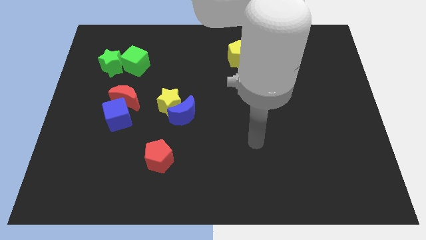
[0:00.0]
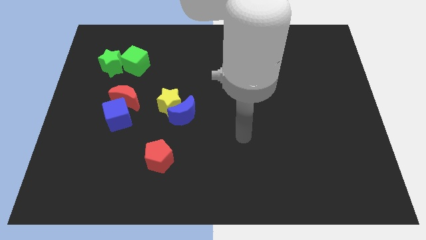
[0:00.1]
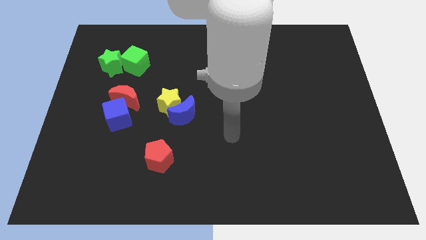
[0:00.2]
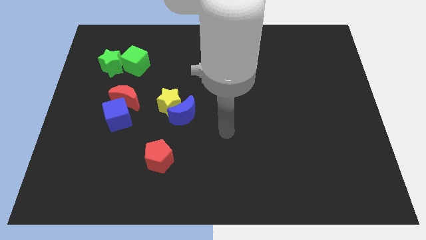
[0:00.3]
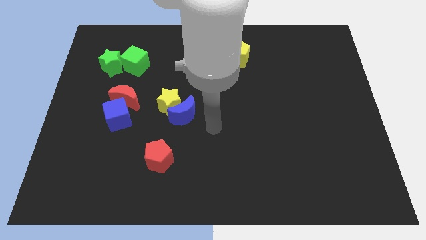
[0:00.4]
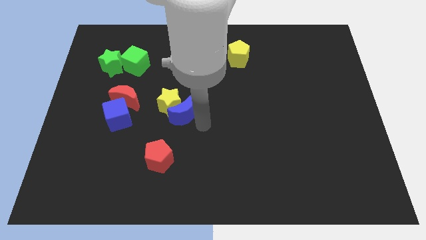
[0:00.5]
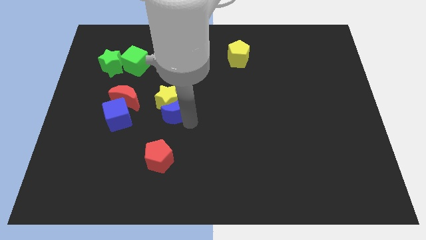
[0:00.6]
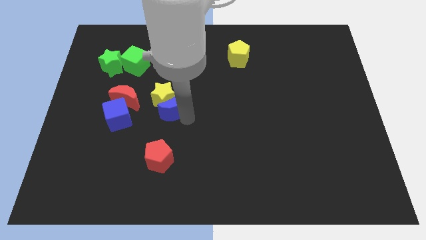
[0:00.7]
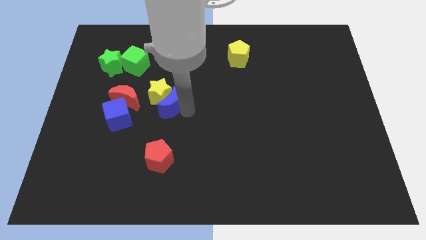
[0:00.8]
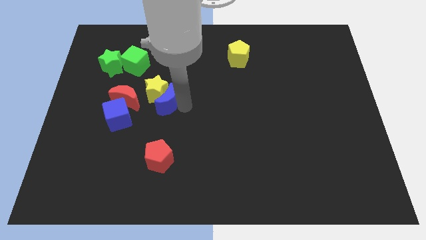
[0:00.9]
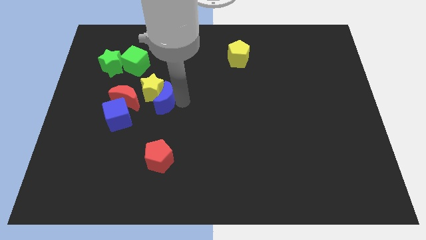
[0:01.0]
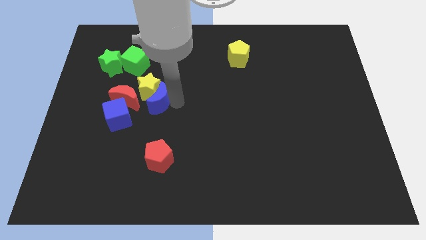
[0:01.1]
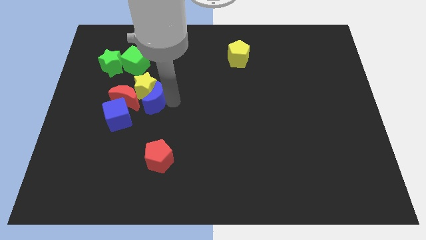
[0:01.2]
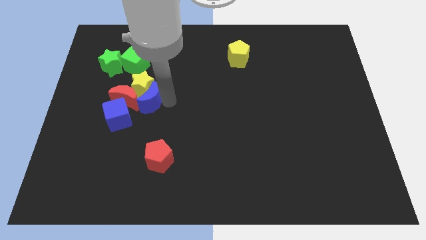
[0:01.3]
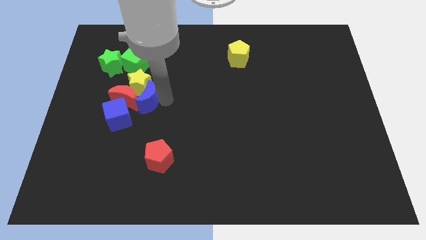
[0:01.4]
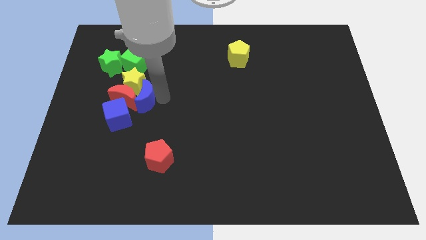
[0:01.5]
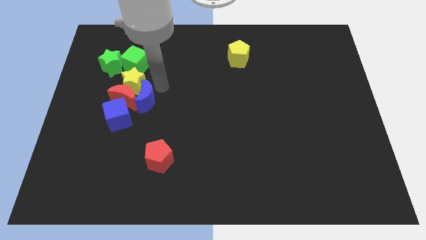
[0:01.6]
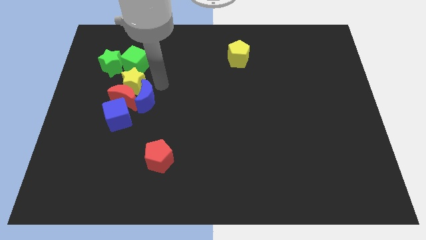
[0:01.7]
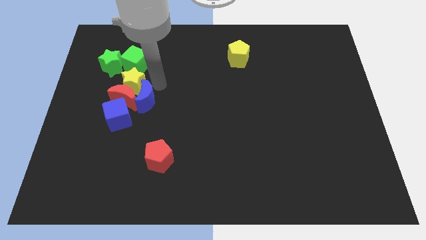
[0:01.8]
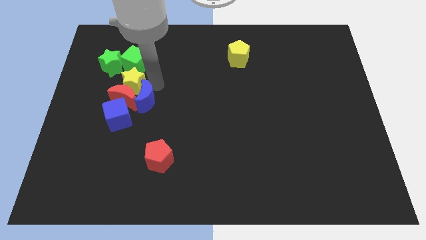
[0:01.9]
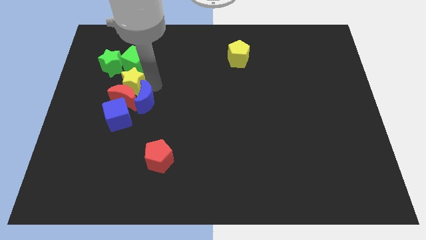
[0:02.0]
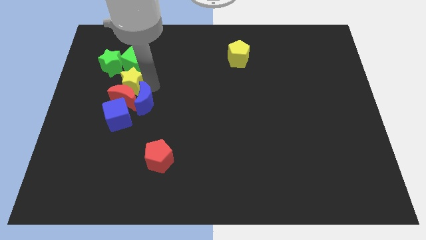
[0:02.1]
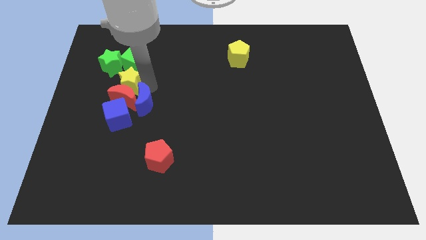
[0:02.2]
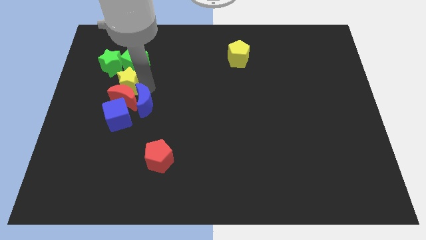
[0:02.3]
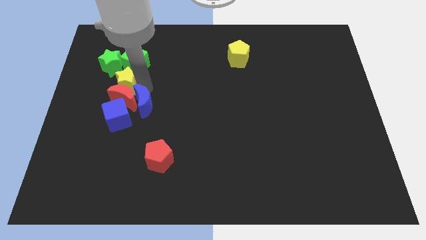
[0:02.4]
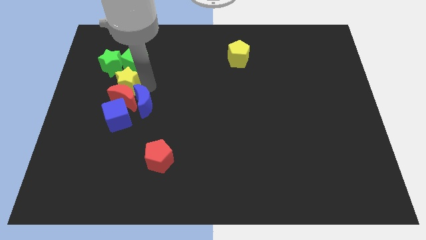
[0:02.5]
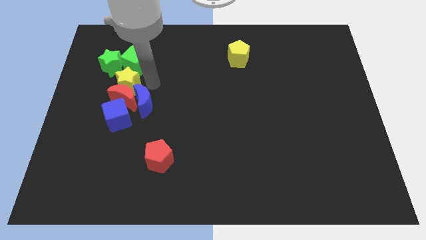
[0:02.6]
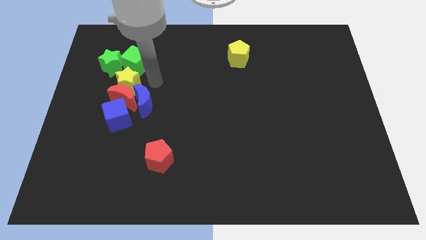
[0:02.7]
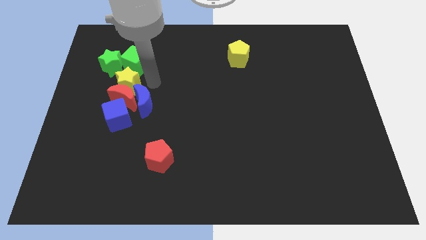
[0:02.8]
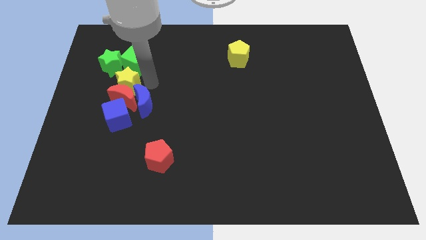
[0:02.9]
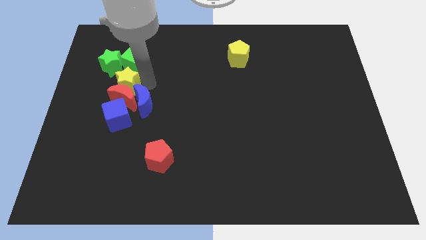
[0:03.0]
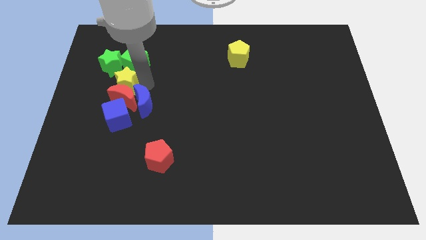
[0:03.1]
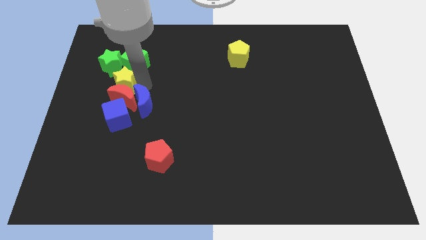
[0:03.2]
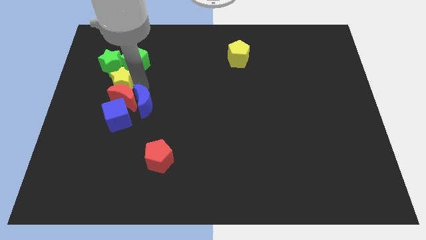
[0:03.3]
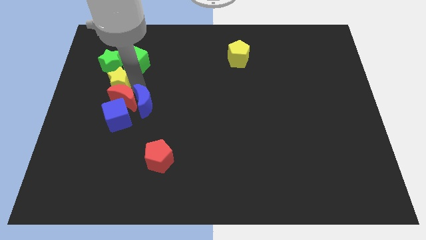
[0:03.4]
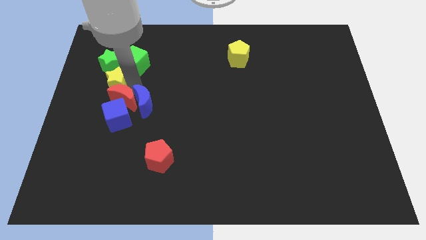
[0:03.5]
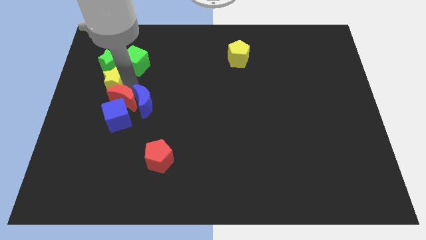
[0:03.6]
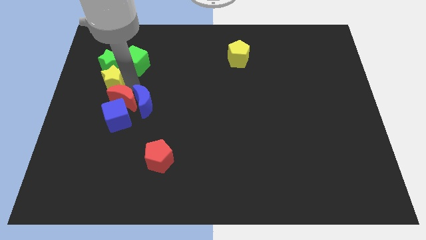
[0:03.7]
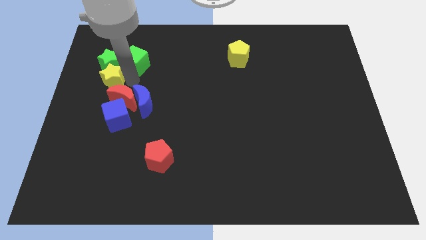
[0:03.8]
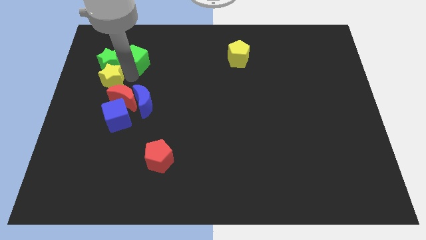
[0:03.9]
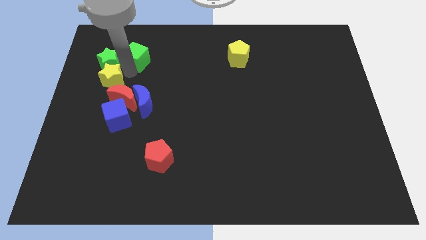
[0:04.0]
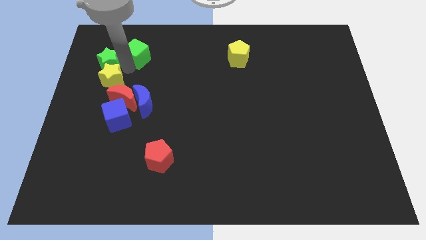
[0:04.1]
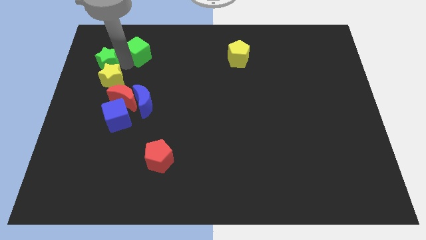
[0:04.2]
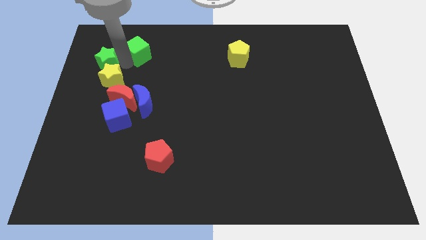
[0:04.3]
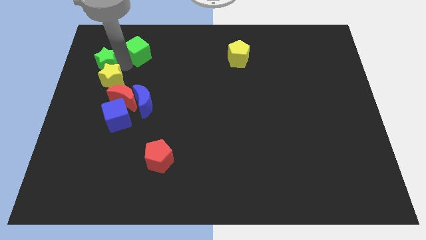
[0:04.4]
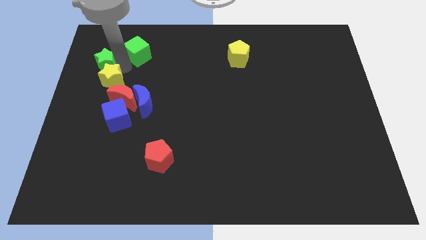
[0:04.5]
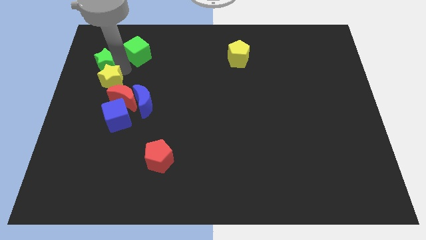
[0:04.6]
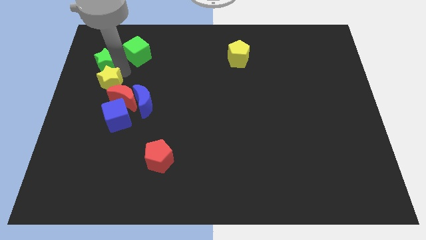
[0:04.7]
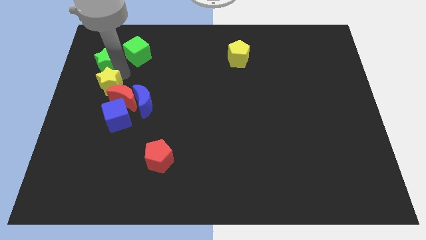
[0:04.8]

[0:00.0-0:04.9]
push the yellow star diagonally up and to the left of the blue cube

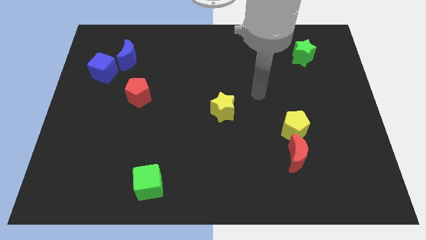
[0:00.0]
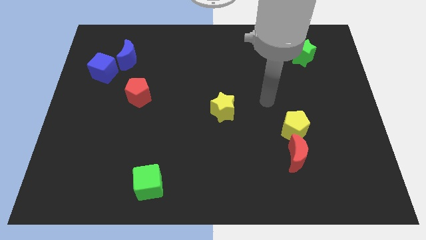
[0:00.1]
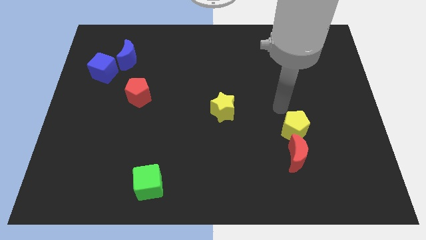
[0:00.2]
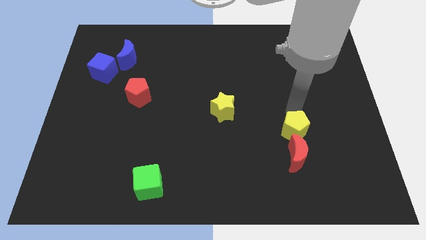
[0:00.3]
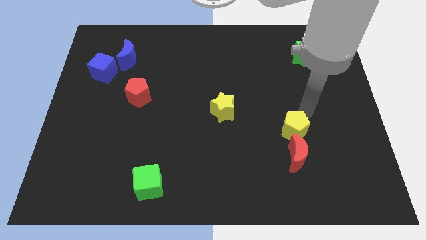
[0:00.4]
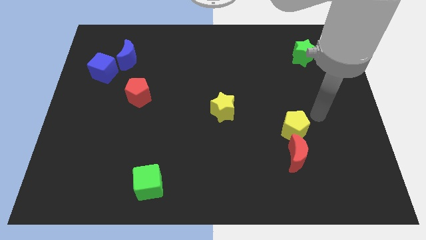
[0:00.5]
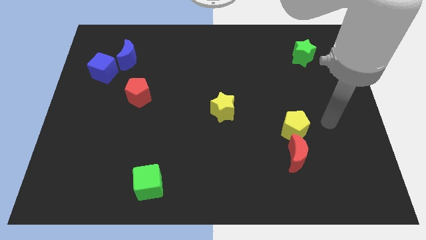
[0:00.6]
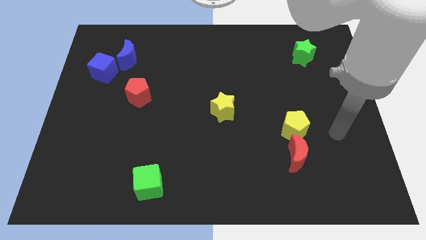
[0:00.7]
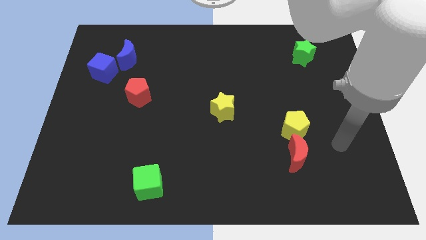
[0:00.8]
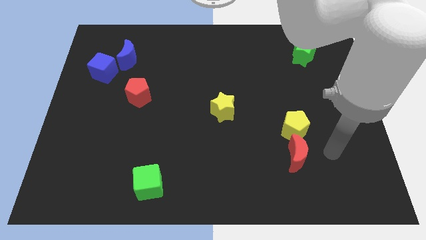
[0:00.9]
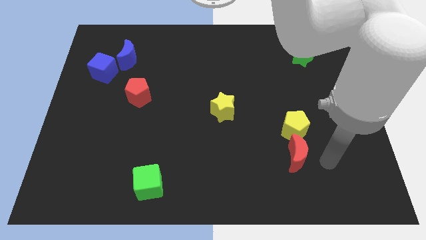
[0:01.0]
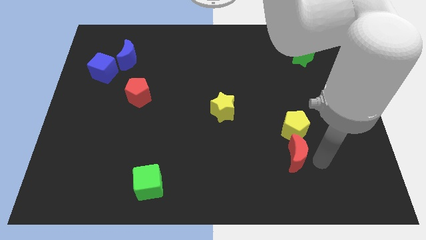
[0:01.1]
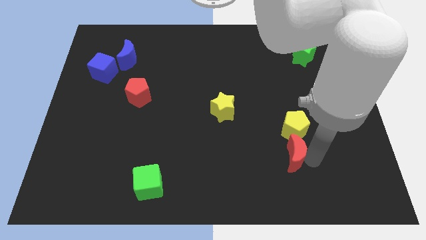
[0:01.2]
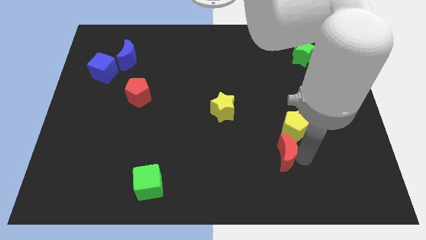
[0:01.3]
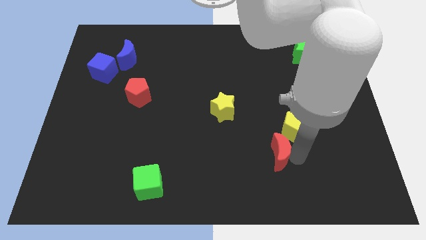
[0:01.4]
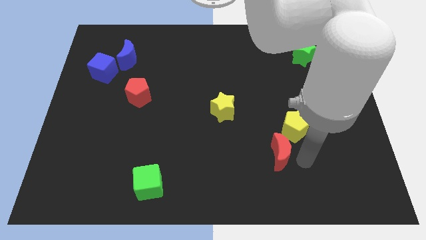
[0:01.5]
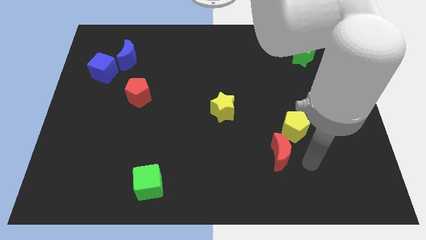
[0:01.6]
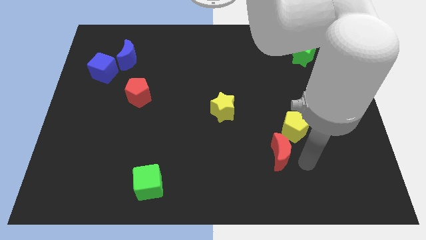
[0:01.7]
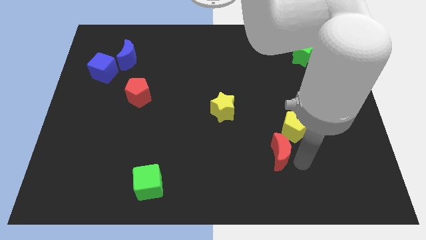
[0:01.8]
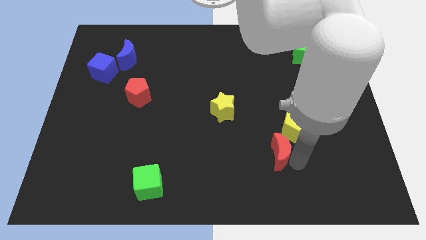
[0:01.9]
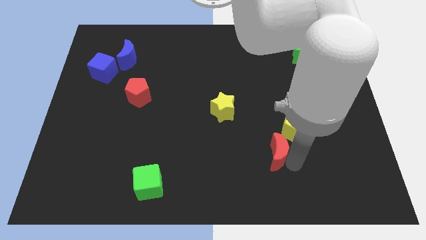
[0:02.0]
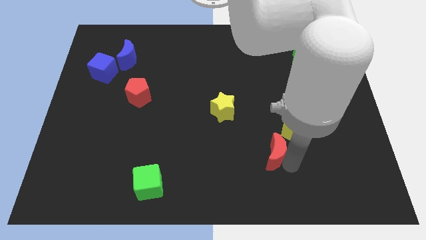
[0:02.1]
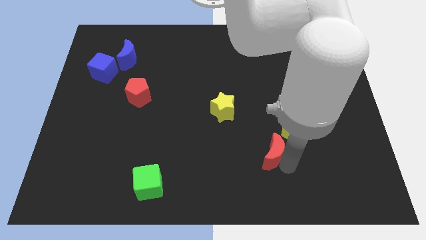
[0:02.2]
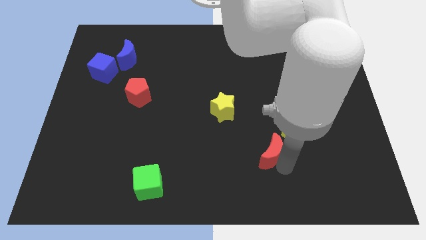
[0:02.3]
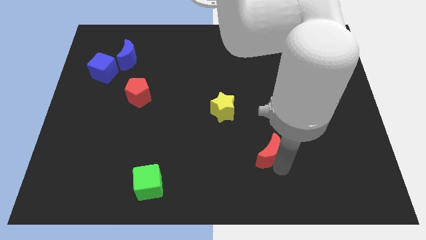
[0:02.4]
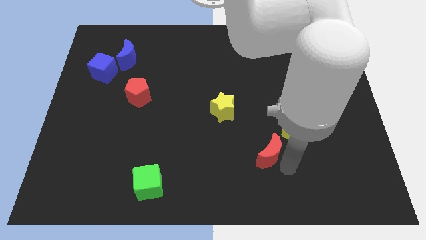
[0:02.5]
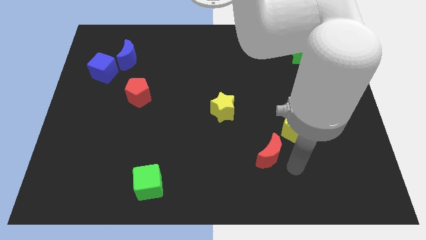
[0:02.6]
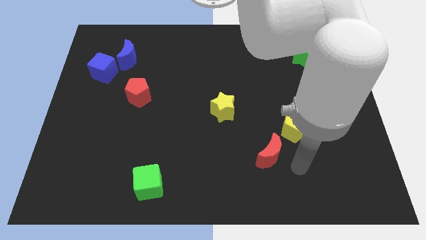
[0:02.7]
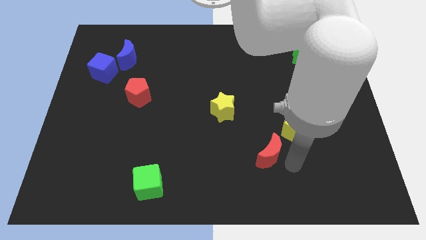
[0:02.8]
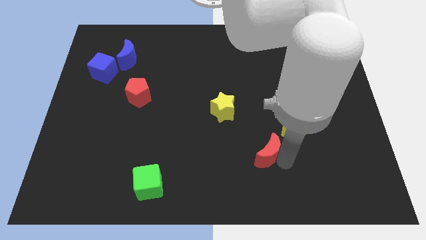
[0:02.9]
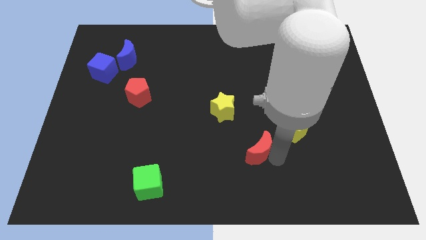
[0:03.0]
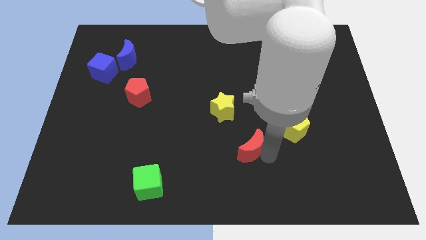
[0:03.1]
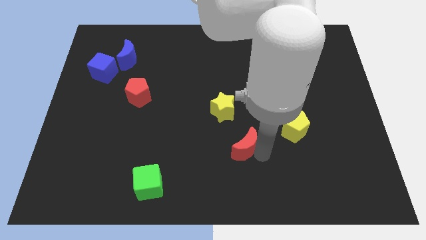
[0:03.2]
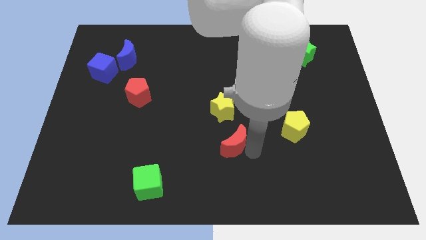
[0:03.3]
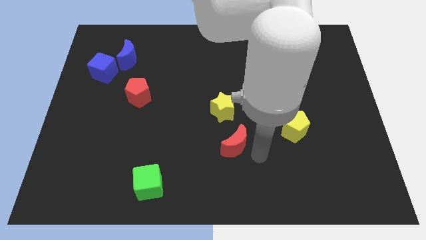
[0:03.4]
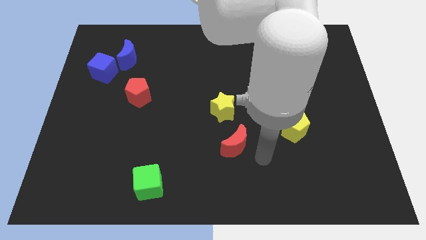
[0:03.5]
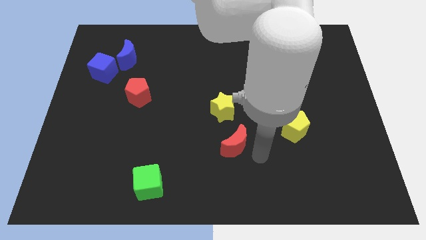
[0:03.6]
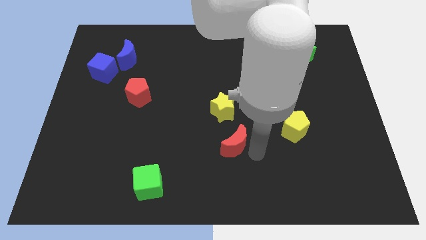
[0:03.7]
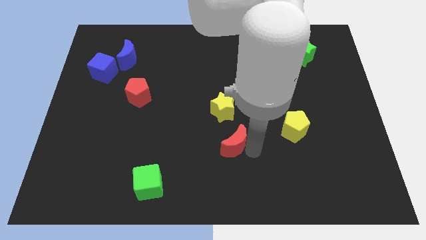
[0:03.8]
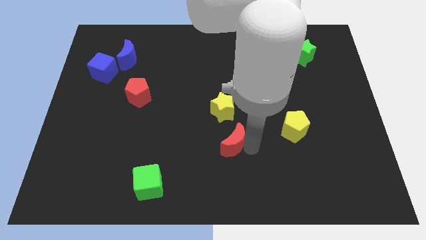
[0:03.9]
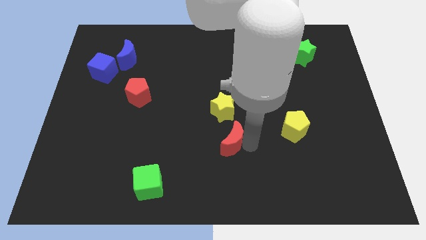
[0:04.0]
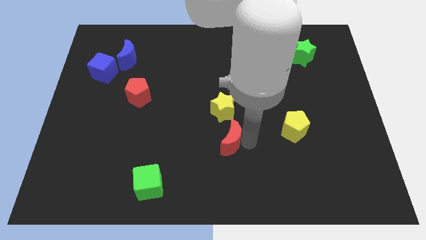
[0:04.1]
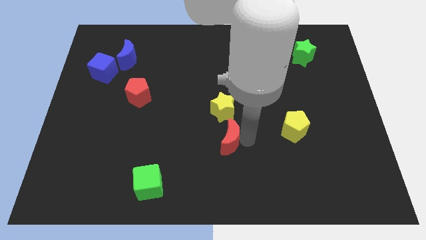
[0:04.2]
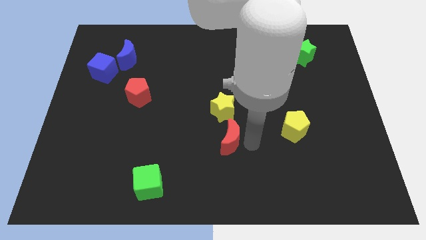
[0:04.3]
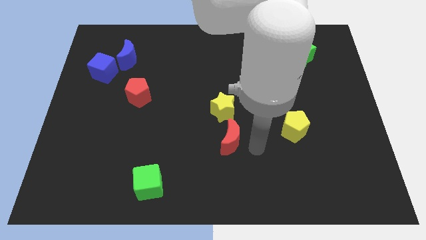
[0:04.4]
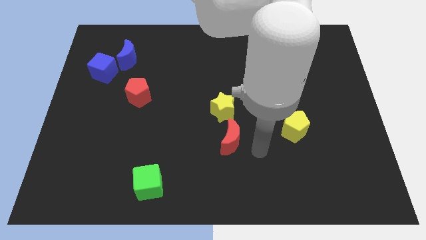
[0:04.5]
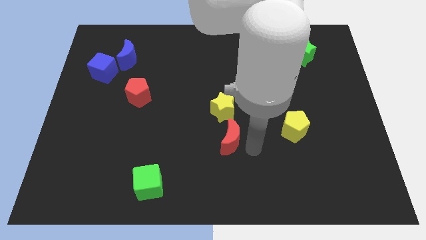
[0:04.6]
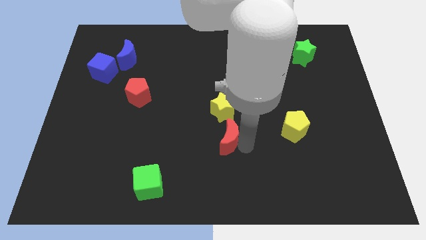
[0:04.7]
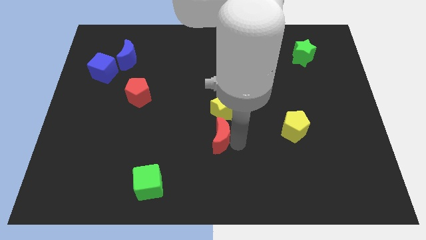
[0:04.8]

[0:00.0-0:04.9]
put the red moon to the bottom left side of the yellow star
